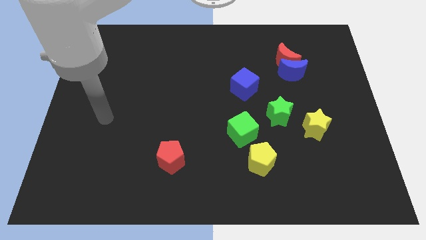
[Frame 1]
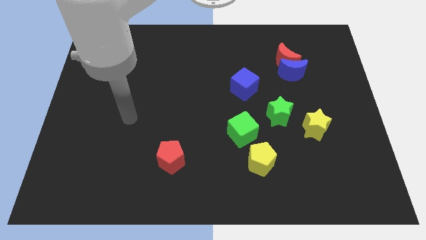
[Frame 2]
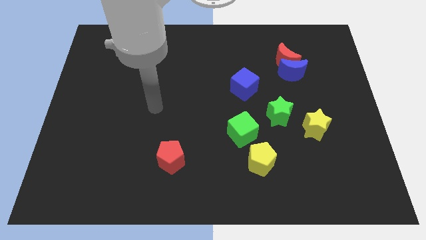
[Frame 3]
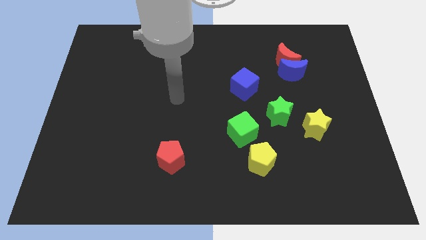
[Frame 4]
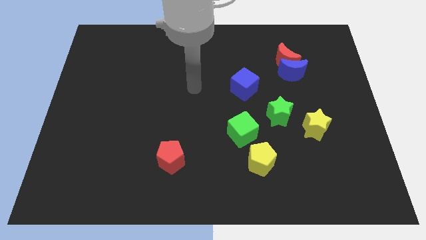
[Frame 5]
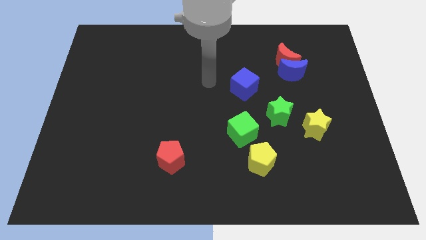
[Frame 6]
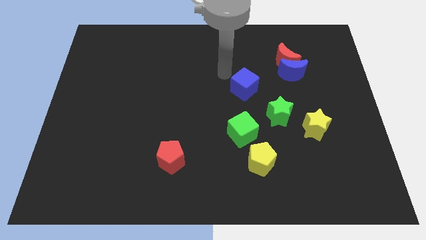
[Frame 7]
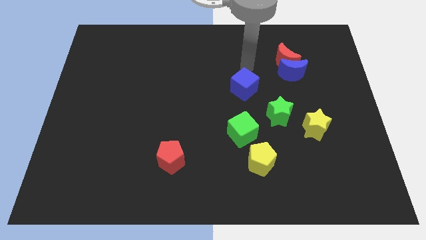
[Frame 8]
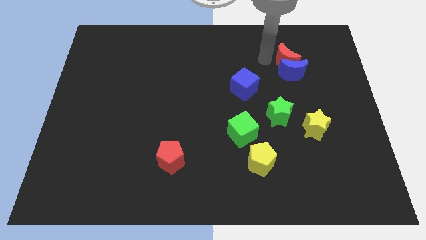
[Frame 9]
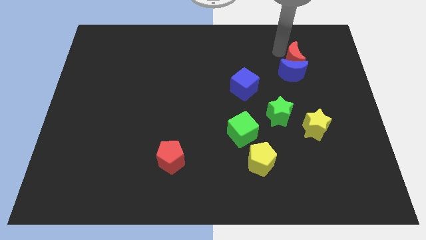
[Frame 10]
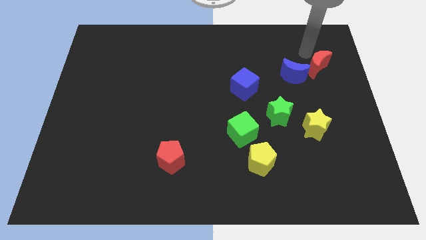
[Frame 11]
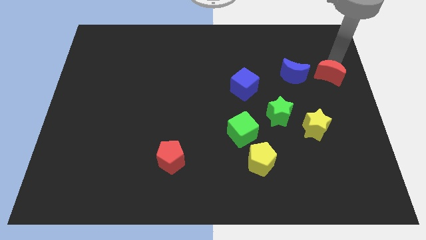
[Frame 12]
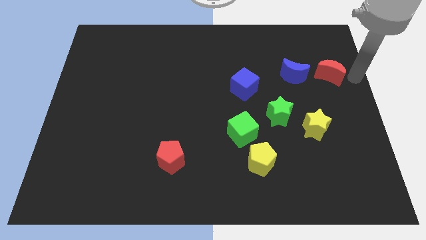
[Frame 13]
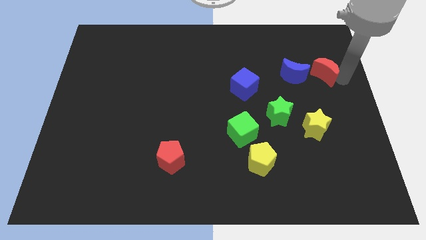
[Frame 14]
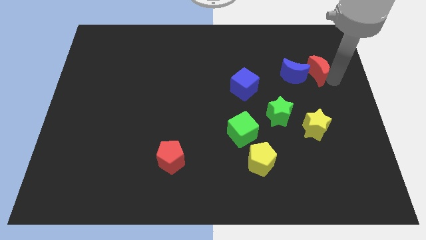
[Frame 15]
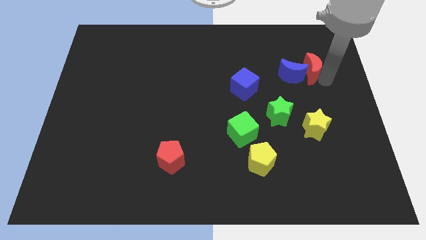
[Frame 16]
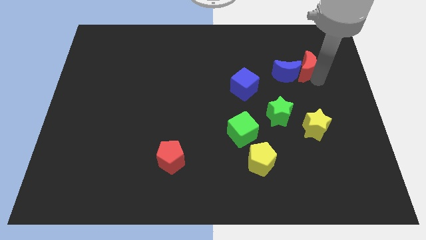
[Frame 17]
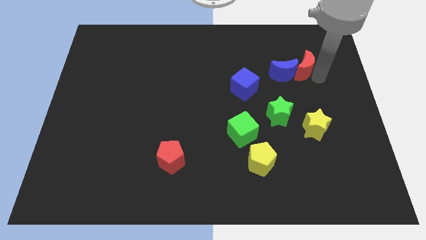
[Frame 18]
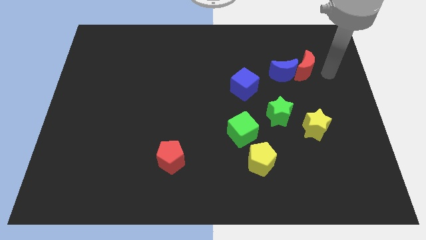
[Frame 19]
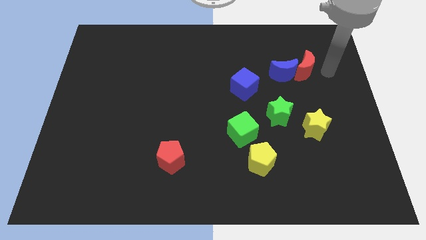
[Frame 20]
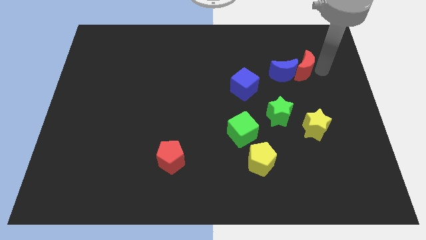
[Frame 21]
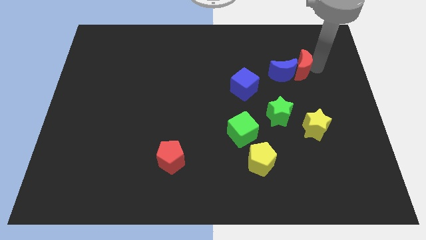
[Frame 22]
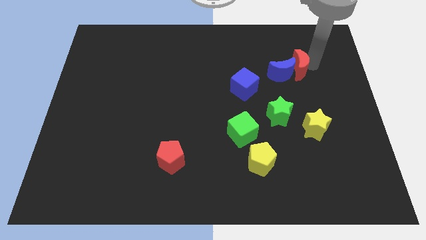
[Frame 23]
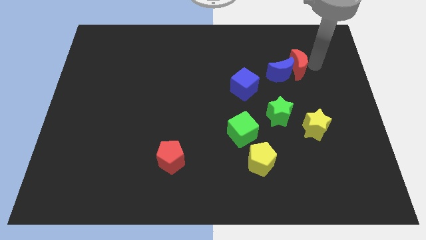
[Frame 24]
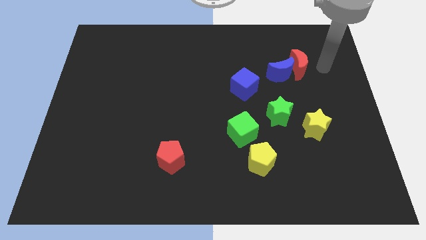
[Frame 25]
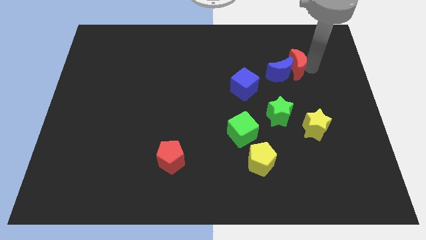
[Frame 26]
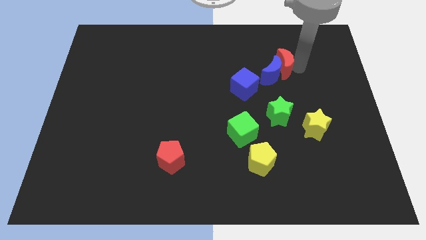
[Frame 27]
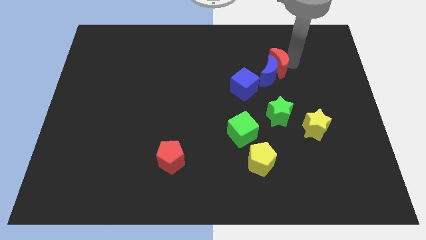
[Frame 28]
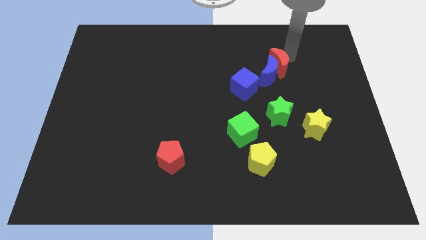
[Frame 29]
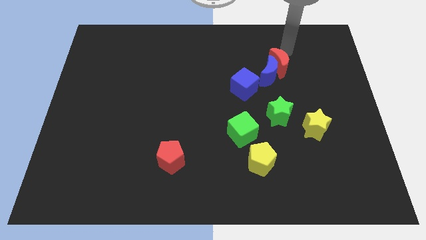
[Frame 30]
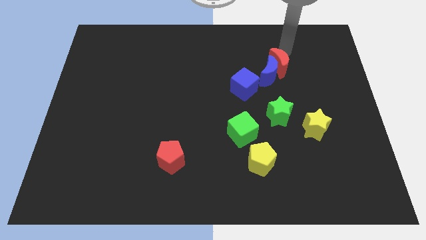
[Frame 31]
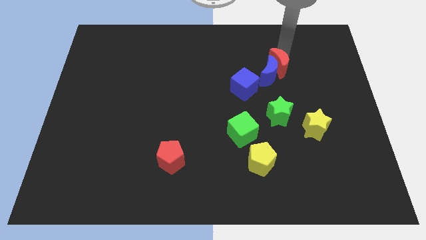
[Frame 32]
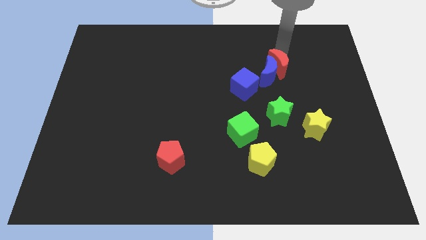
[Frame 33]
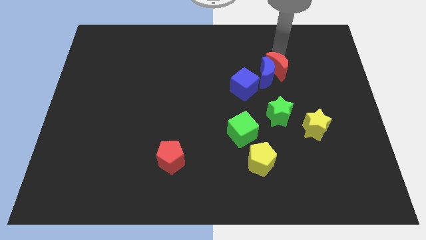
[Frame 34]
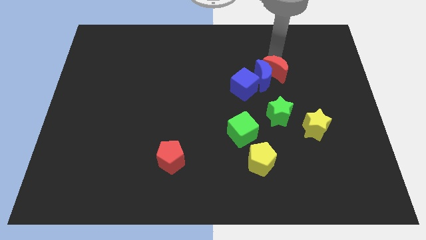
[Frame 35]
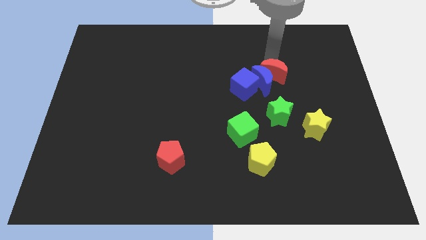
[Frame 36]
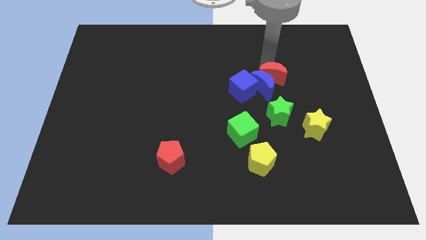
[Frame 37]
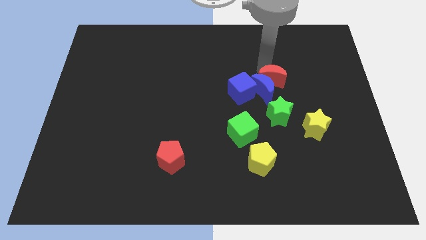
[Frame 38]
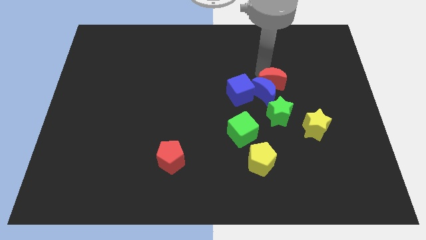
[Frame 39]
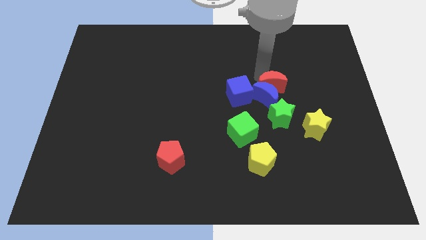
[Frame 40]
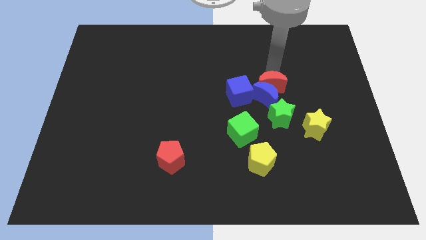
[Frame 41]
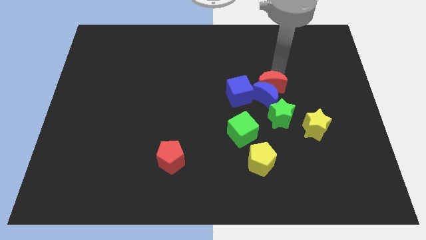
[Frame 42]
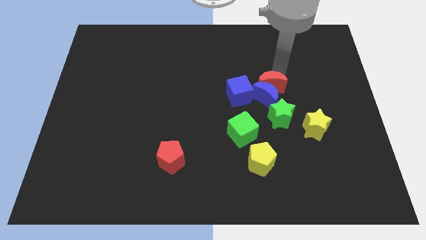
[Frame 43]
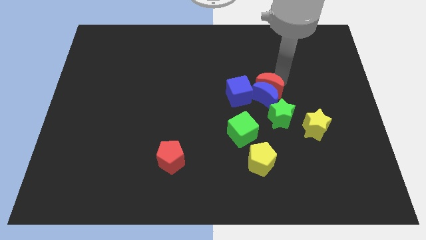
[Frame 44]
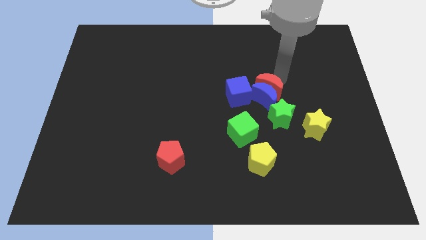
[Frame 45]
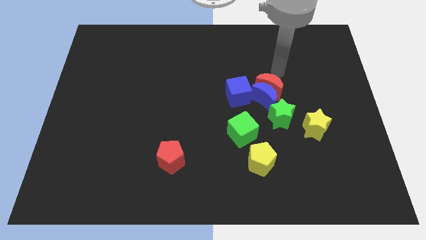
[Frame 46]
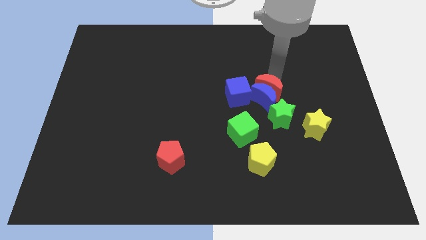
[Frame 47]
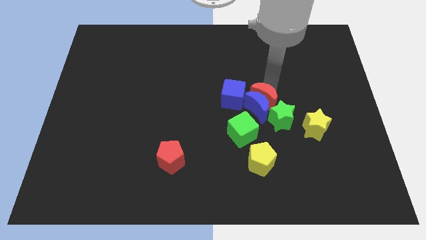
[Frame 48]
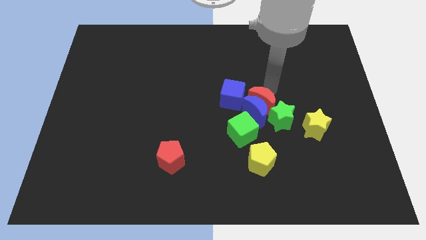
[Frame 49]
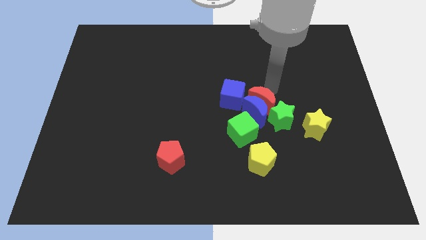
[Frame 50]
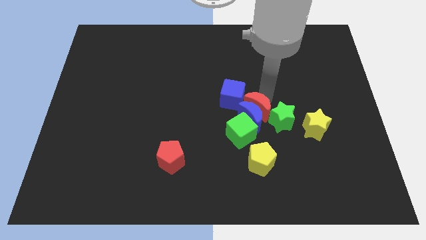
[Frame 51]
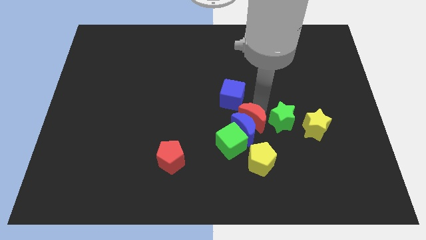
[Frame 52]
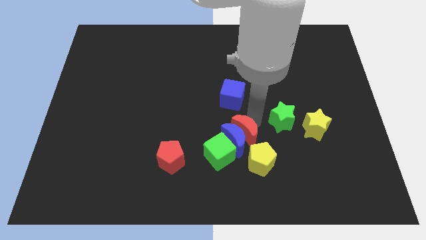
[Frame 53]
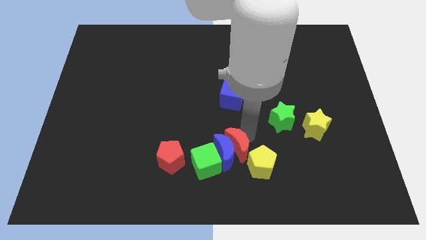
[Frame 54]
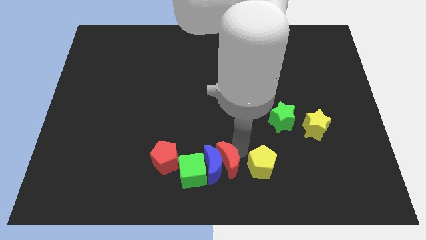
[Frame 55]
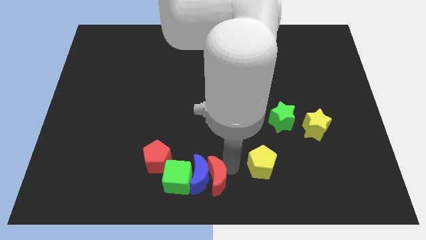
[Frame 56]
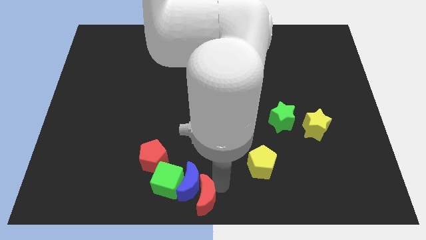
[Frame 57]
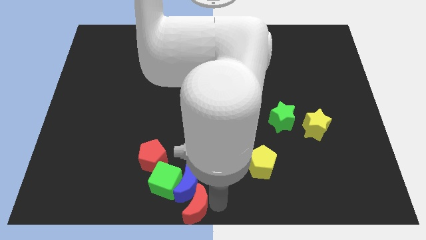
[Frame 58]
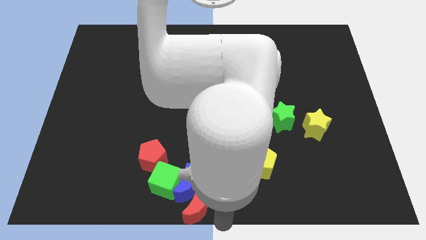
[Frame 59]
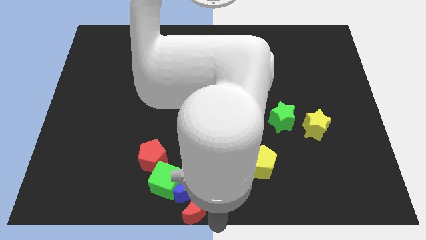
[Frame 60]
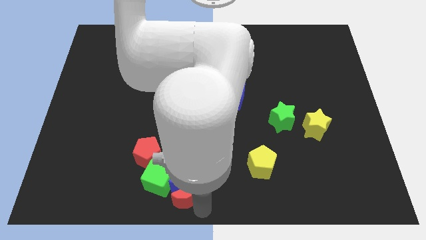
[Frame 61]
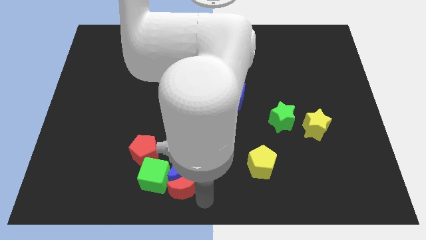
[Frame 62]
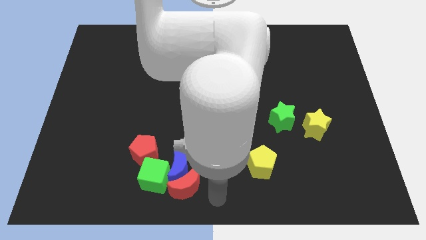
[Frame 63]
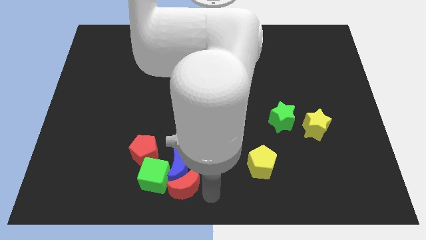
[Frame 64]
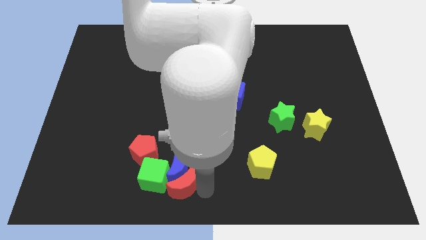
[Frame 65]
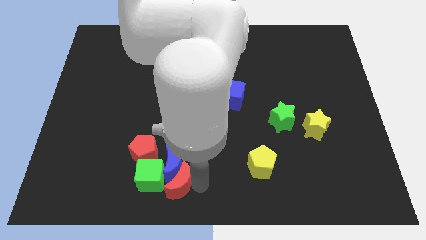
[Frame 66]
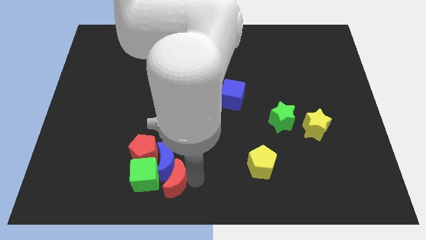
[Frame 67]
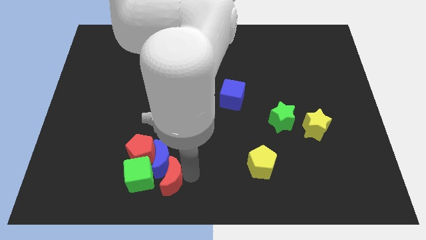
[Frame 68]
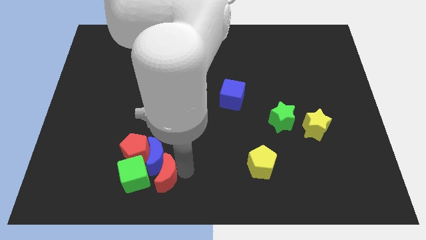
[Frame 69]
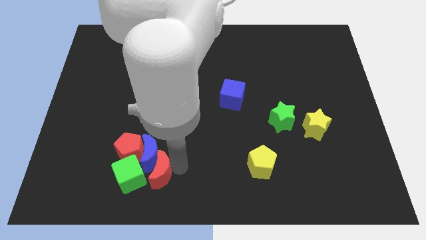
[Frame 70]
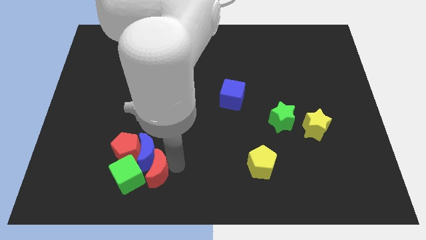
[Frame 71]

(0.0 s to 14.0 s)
slide the red moon to the green cube

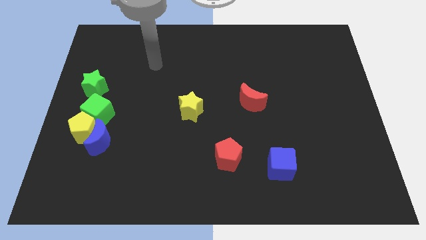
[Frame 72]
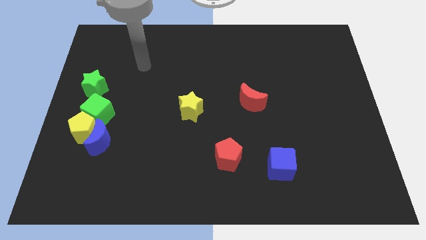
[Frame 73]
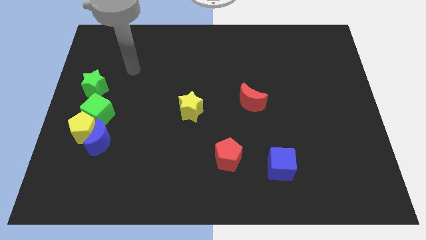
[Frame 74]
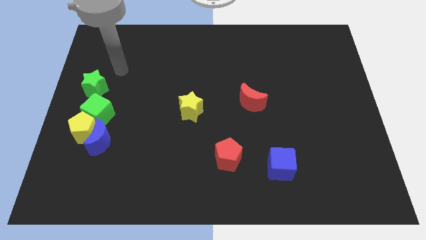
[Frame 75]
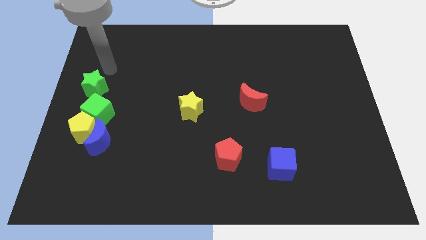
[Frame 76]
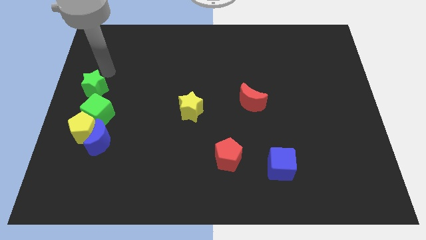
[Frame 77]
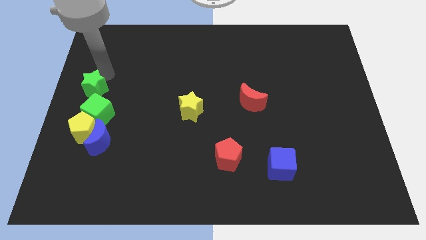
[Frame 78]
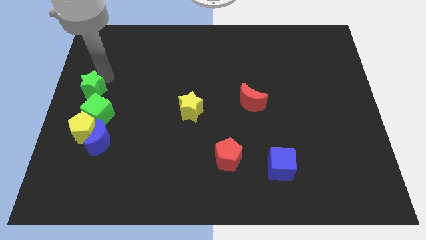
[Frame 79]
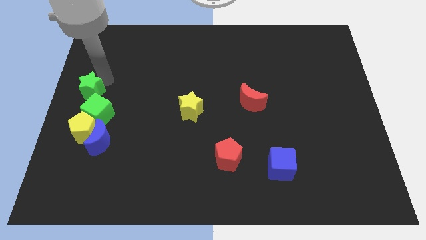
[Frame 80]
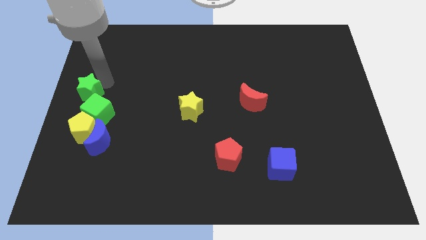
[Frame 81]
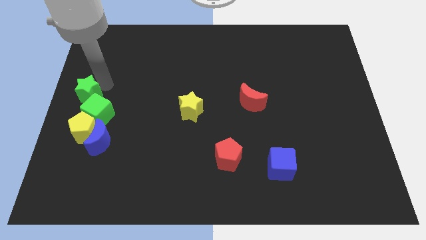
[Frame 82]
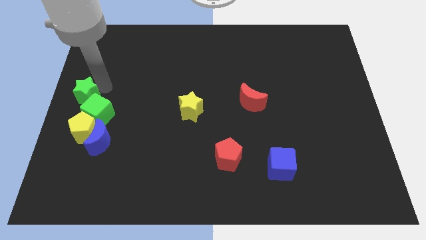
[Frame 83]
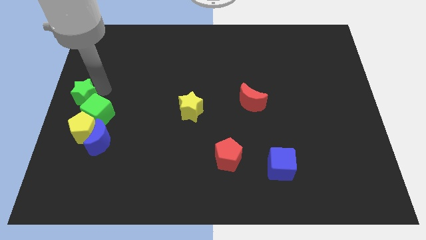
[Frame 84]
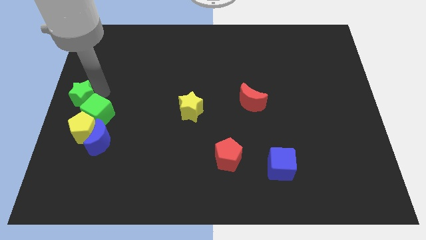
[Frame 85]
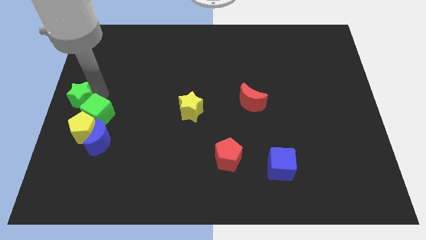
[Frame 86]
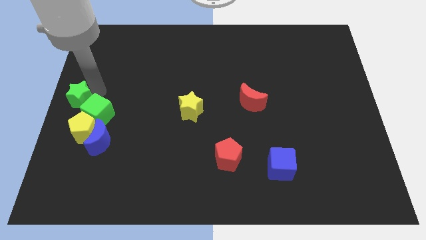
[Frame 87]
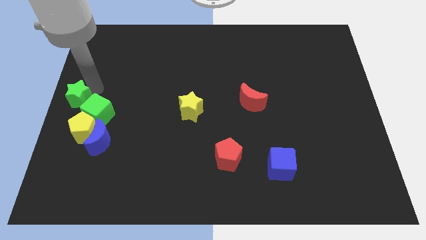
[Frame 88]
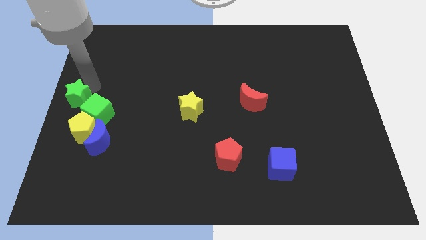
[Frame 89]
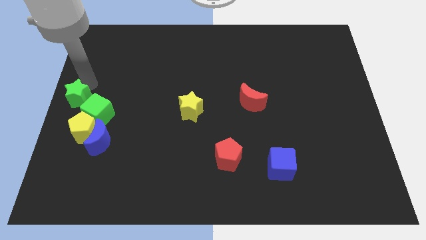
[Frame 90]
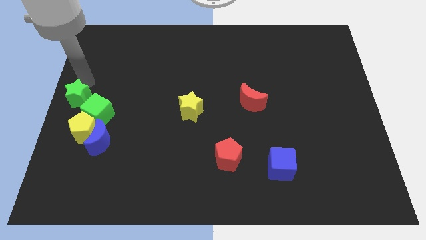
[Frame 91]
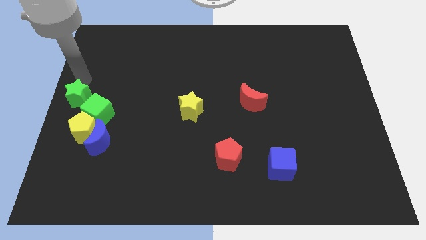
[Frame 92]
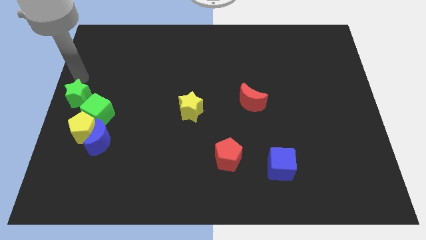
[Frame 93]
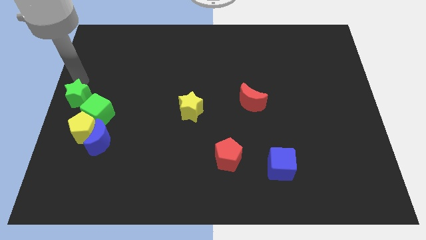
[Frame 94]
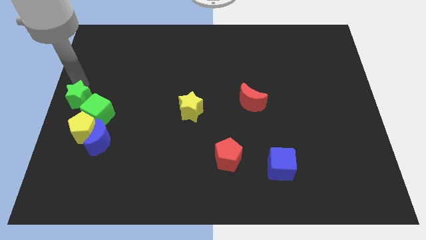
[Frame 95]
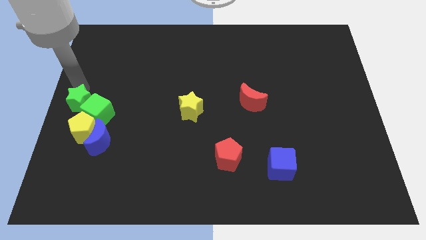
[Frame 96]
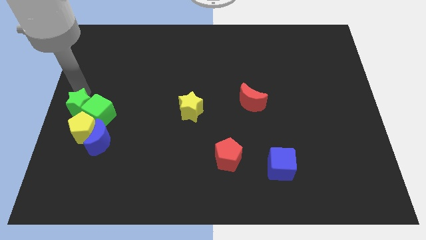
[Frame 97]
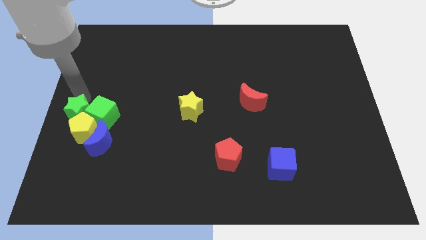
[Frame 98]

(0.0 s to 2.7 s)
slide the green star towards the yellow pentagon
